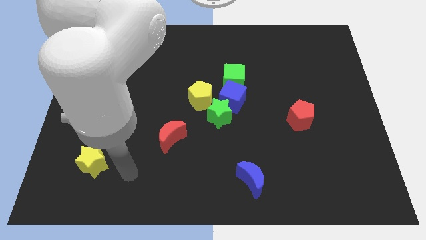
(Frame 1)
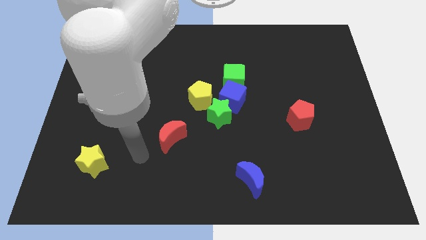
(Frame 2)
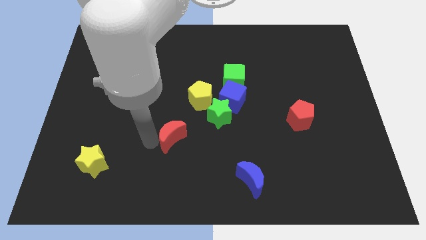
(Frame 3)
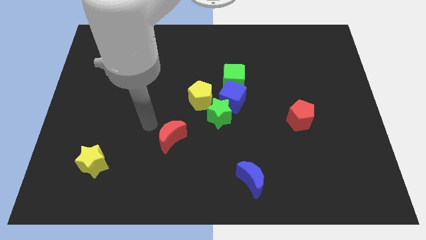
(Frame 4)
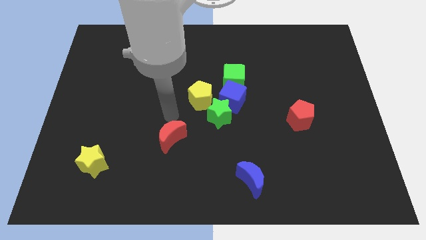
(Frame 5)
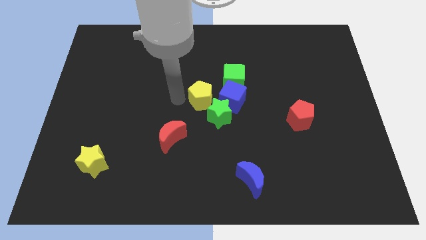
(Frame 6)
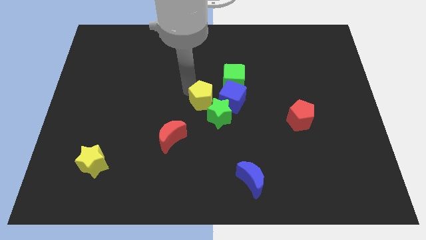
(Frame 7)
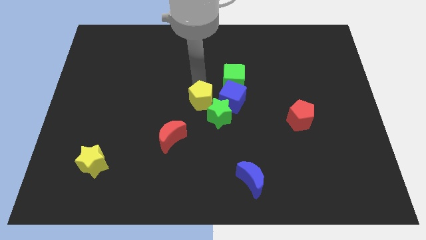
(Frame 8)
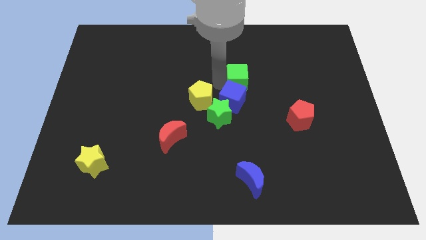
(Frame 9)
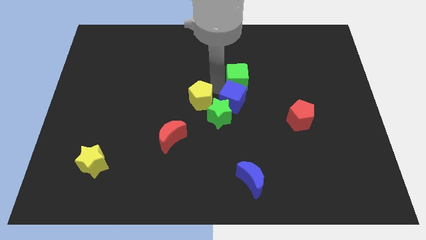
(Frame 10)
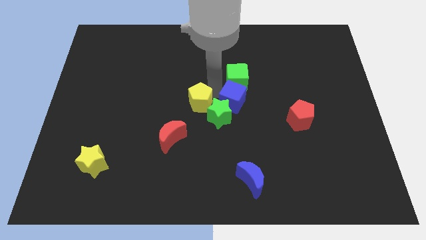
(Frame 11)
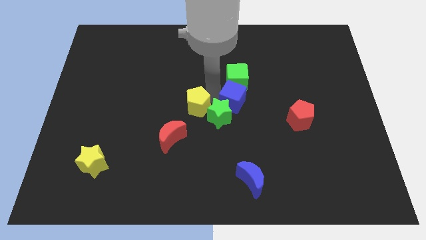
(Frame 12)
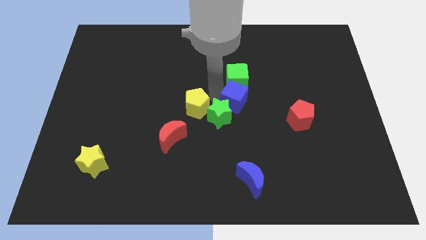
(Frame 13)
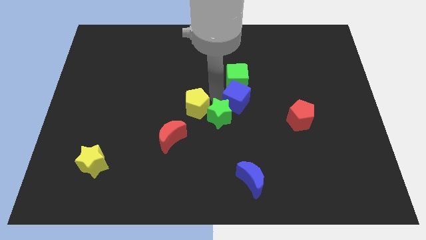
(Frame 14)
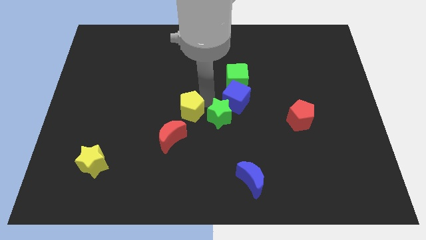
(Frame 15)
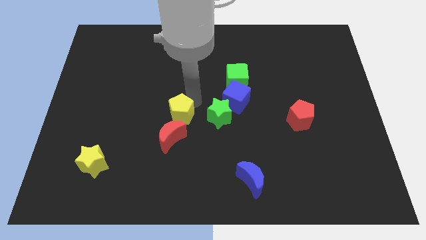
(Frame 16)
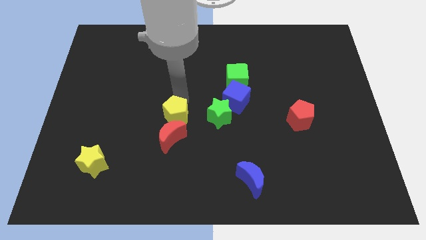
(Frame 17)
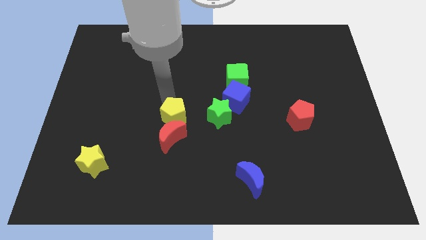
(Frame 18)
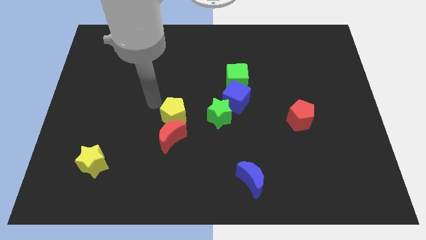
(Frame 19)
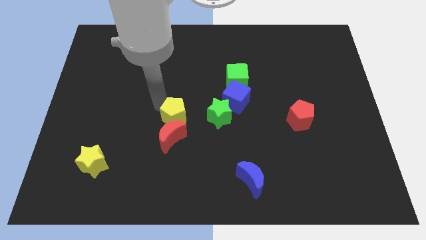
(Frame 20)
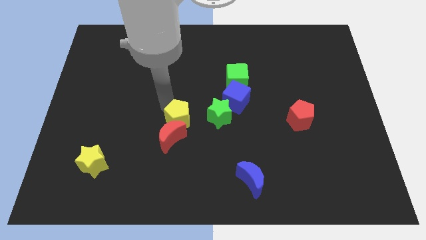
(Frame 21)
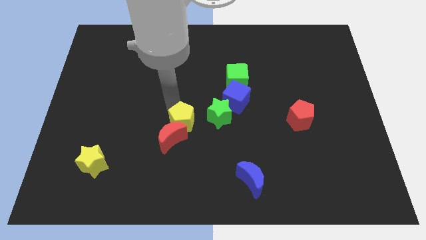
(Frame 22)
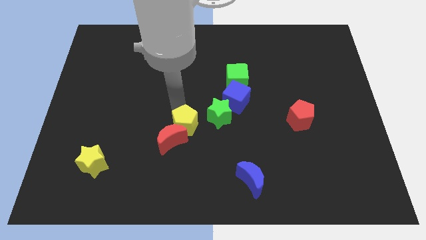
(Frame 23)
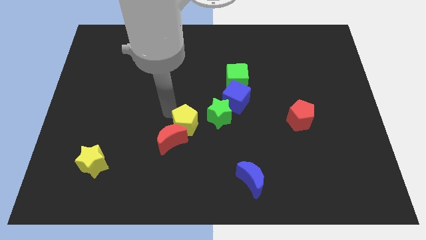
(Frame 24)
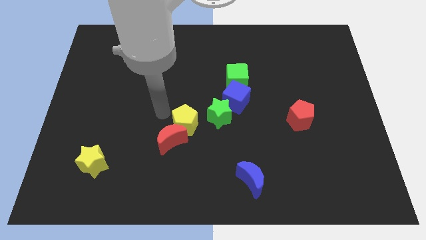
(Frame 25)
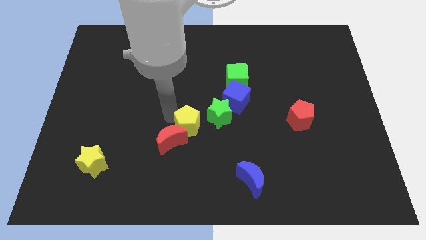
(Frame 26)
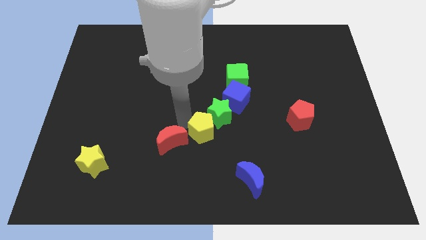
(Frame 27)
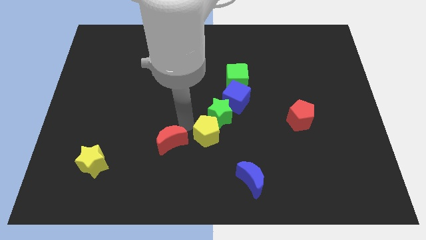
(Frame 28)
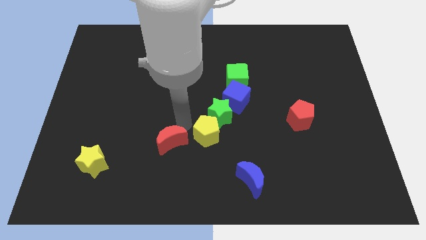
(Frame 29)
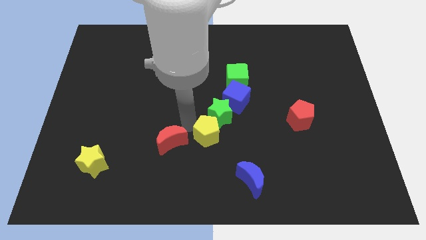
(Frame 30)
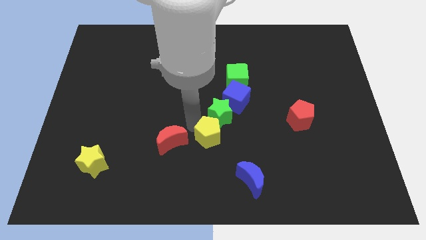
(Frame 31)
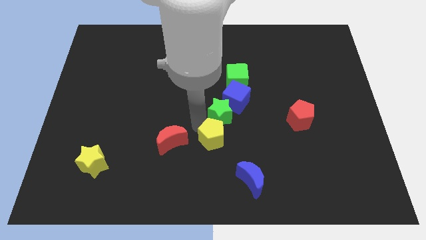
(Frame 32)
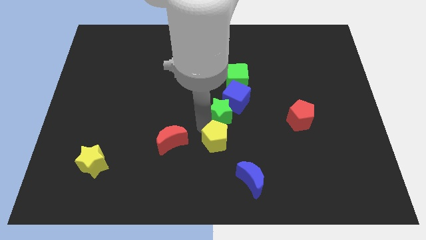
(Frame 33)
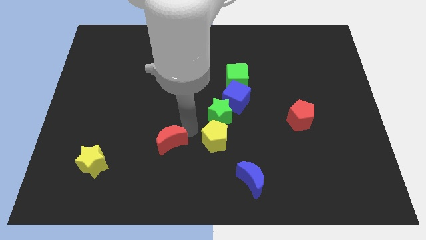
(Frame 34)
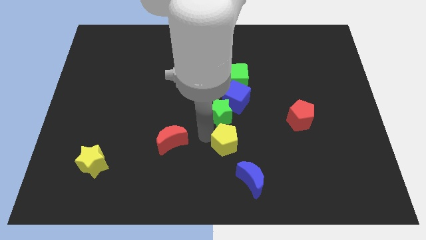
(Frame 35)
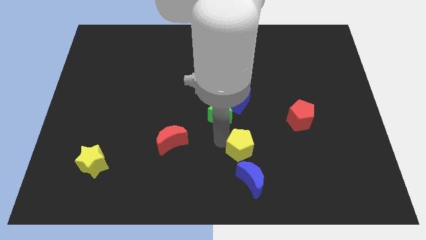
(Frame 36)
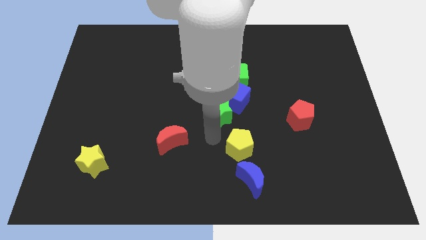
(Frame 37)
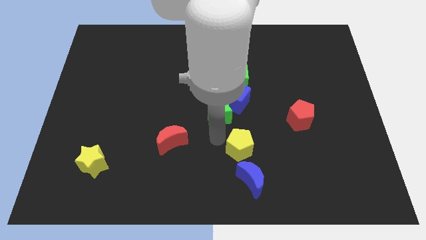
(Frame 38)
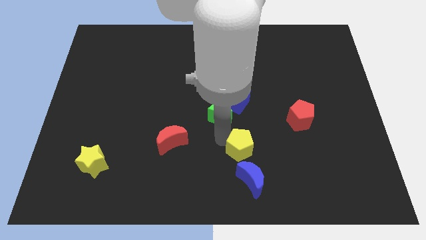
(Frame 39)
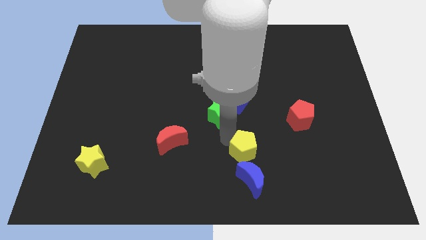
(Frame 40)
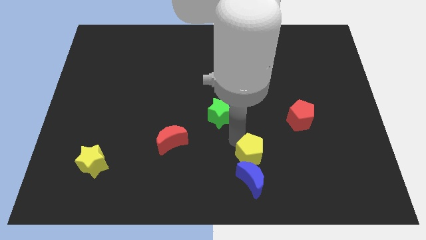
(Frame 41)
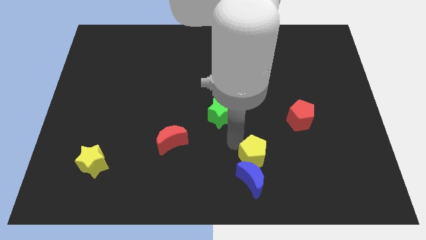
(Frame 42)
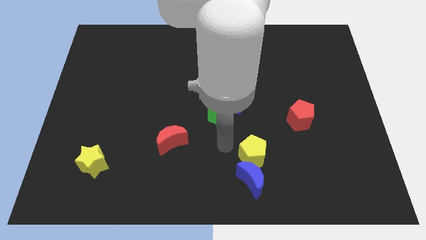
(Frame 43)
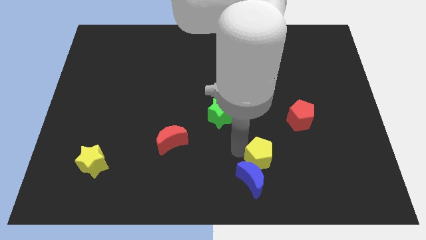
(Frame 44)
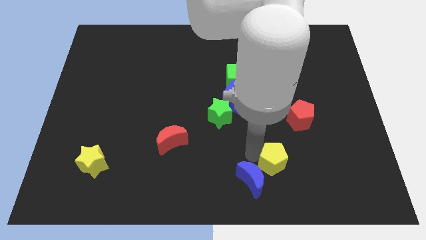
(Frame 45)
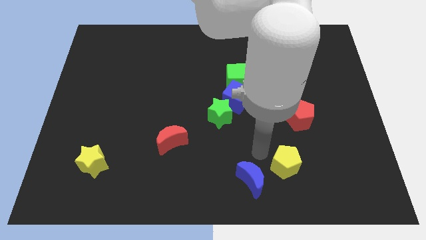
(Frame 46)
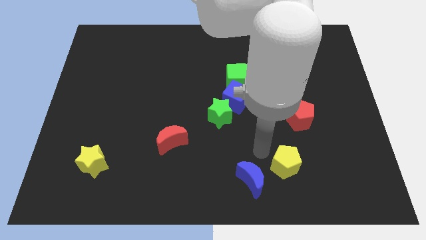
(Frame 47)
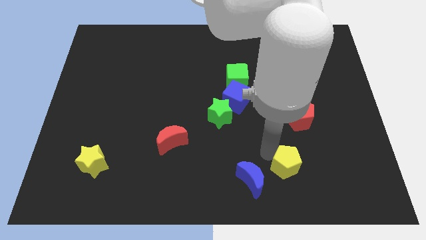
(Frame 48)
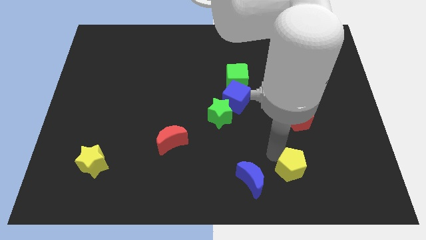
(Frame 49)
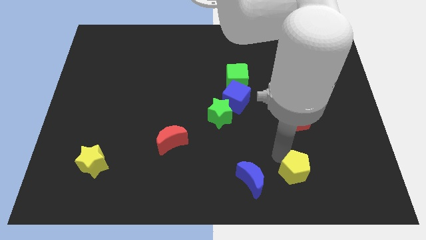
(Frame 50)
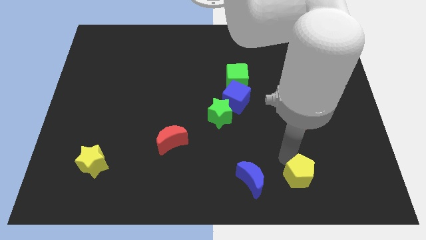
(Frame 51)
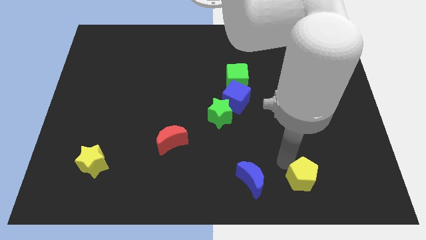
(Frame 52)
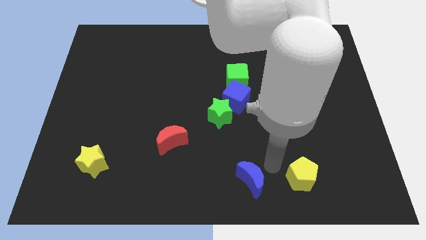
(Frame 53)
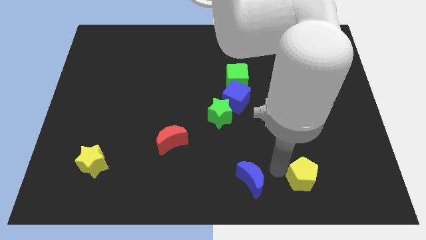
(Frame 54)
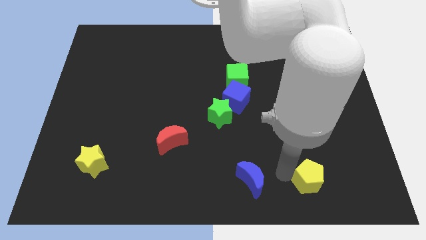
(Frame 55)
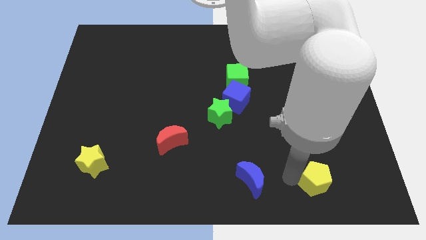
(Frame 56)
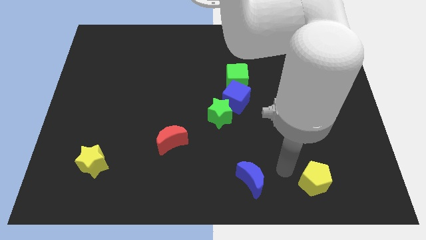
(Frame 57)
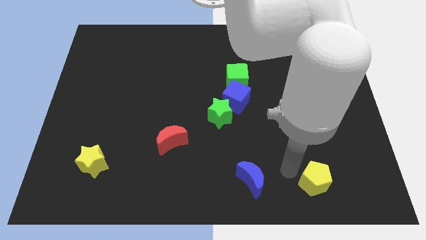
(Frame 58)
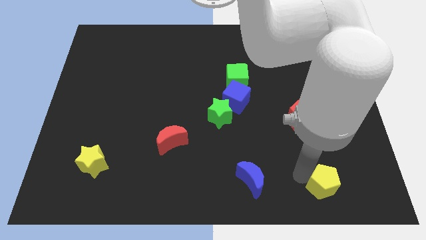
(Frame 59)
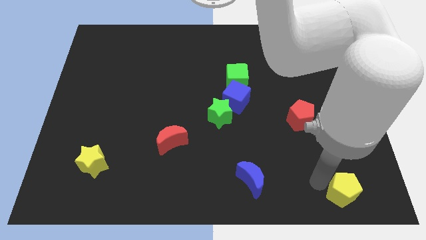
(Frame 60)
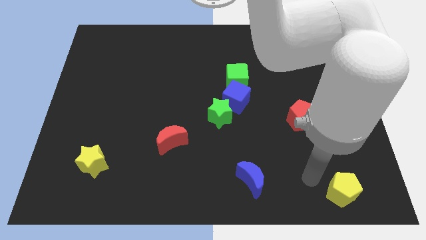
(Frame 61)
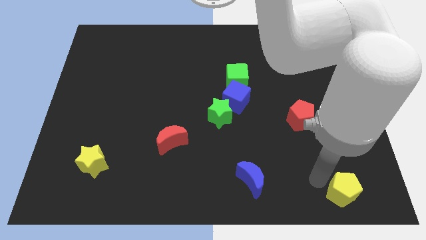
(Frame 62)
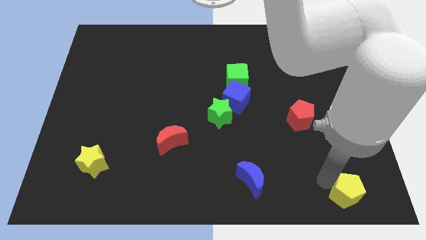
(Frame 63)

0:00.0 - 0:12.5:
move the yellow pentagon to the bottom right corner
